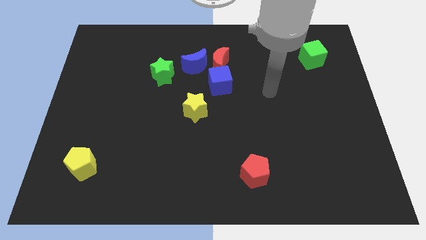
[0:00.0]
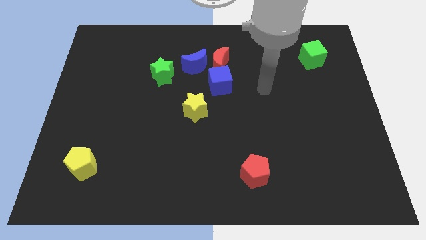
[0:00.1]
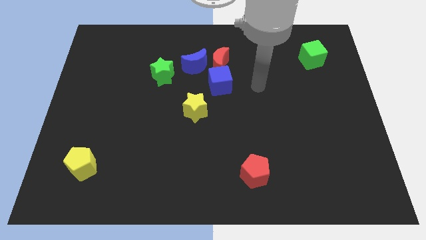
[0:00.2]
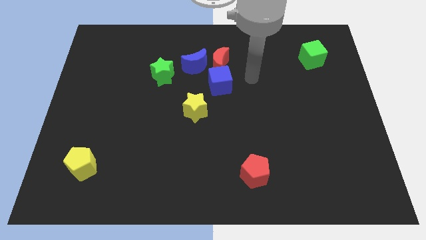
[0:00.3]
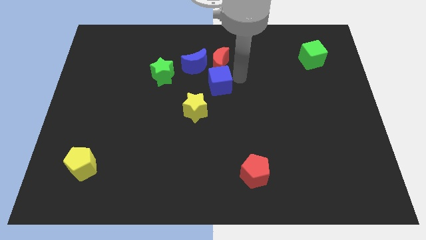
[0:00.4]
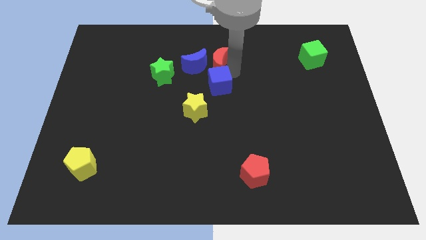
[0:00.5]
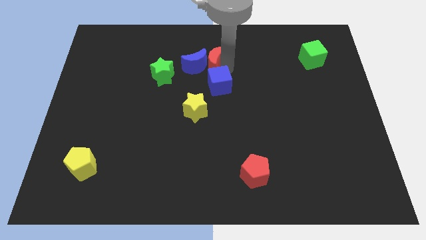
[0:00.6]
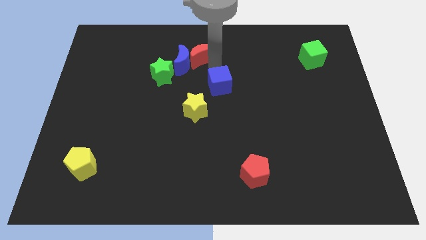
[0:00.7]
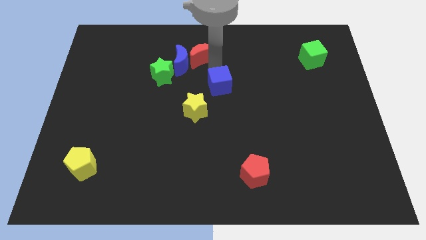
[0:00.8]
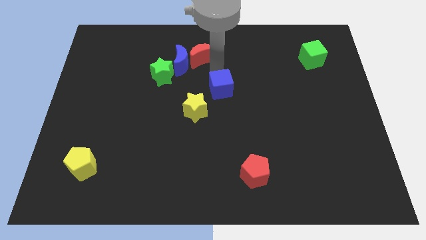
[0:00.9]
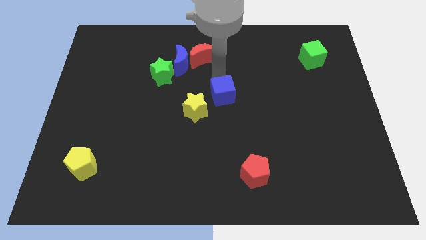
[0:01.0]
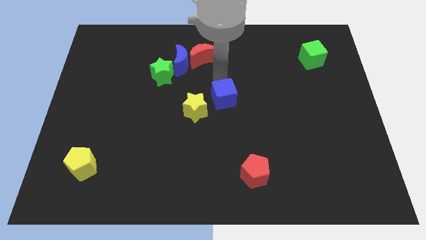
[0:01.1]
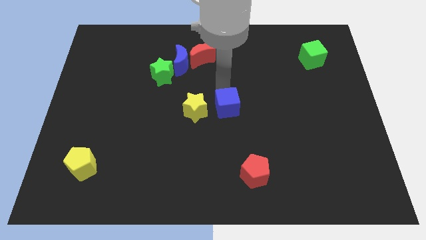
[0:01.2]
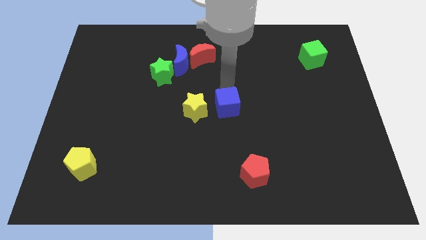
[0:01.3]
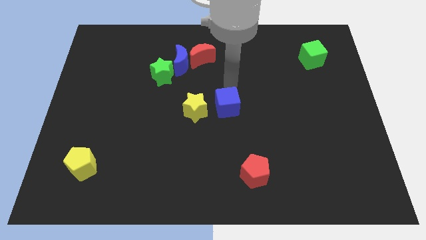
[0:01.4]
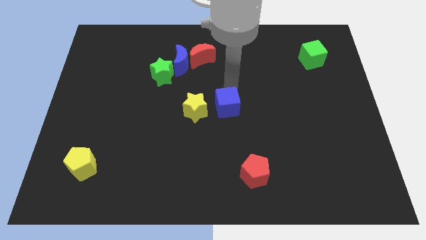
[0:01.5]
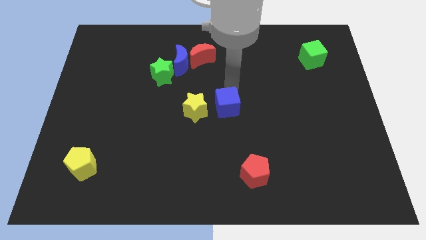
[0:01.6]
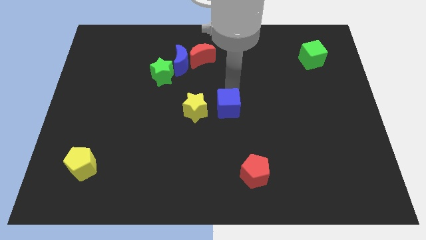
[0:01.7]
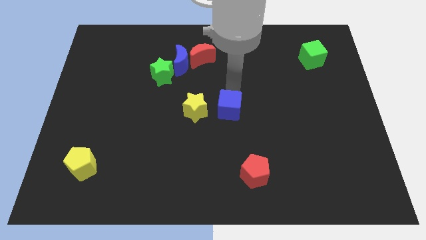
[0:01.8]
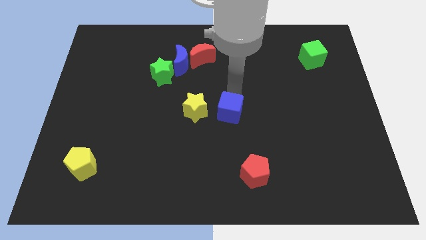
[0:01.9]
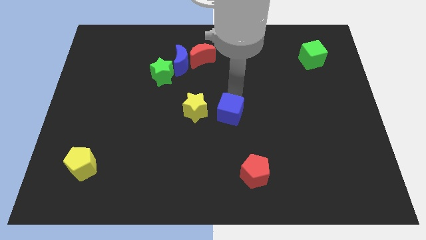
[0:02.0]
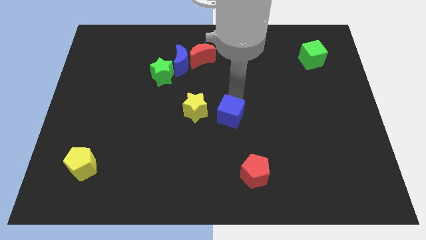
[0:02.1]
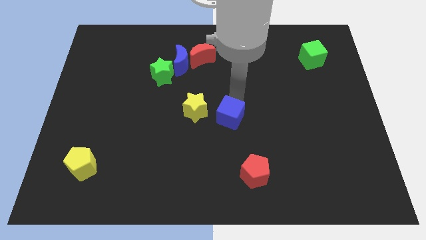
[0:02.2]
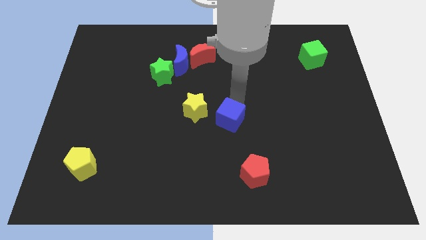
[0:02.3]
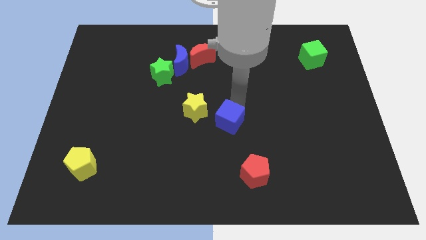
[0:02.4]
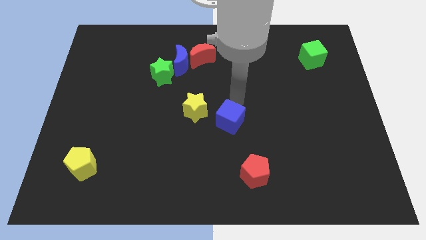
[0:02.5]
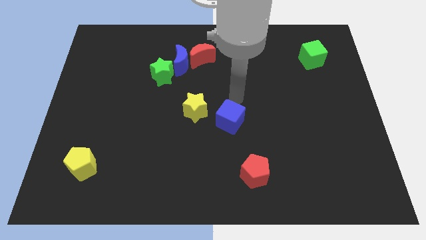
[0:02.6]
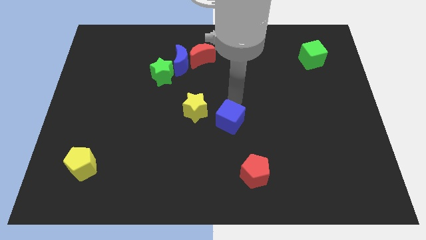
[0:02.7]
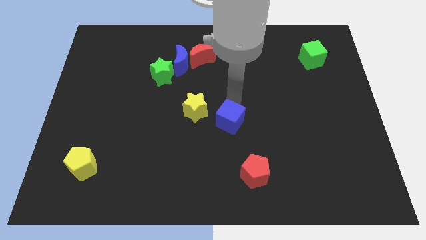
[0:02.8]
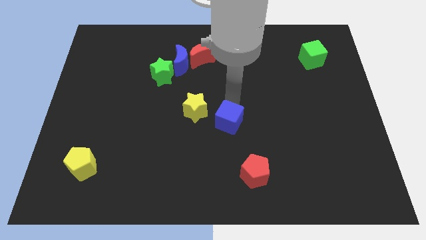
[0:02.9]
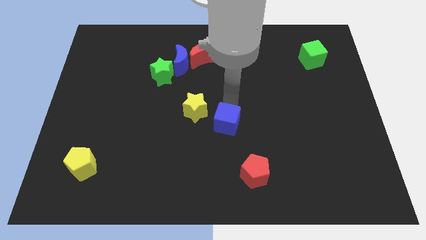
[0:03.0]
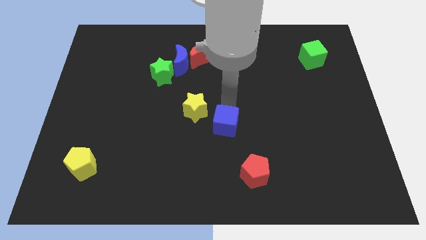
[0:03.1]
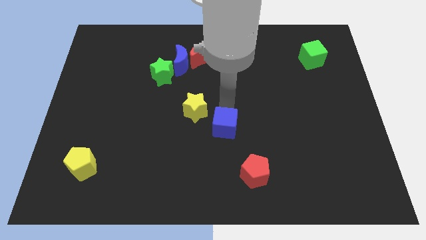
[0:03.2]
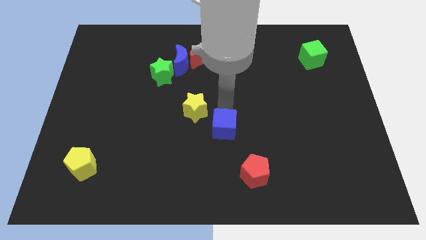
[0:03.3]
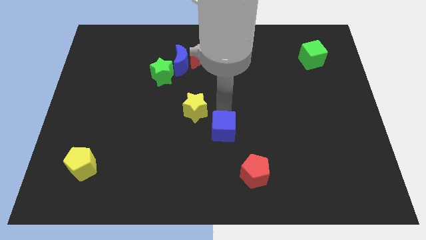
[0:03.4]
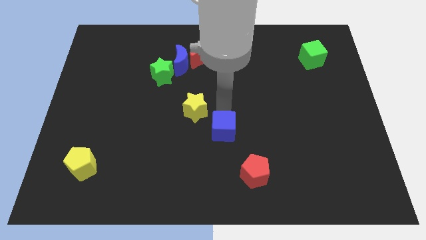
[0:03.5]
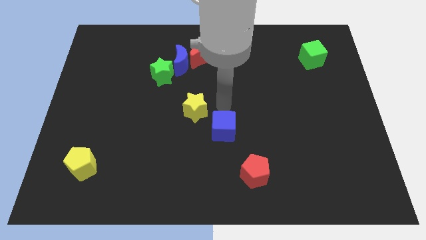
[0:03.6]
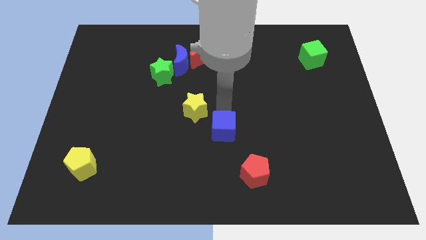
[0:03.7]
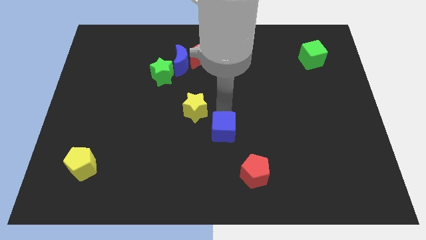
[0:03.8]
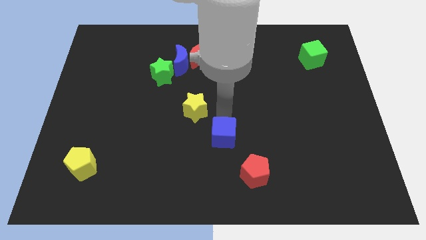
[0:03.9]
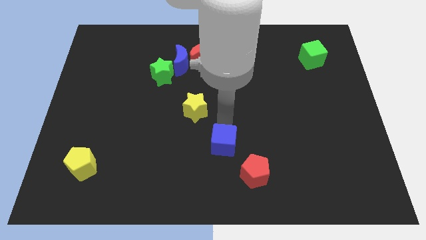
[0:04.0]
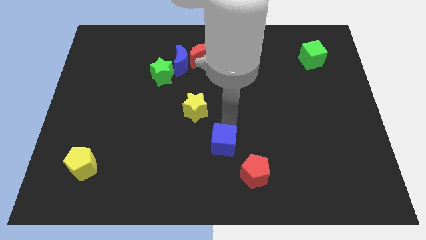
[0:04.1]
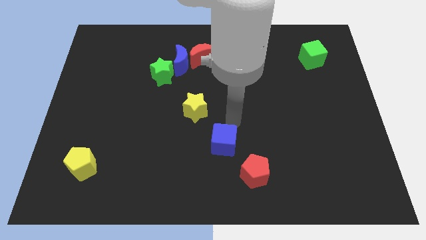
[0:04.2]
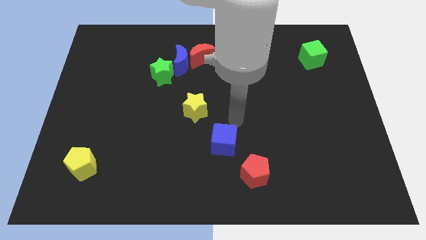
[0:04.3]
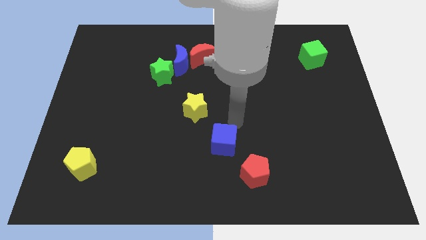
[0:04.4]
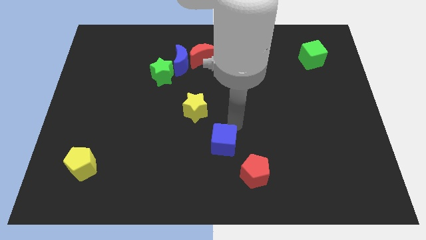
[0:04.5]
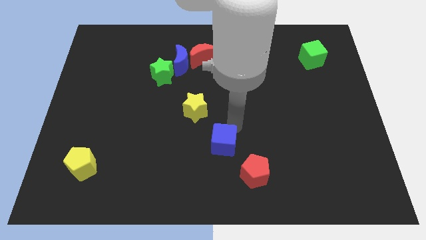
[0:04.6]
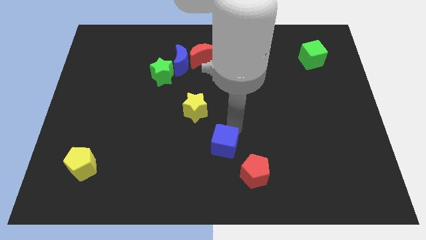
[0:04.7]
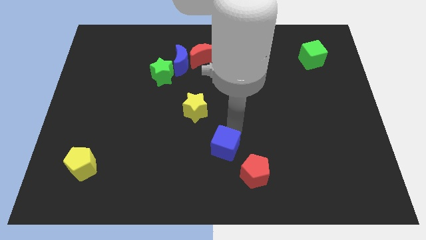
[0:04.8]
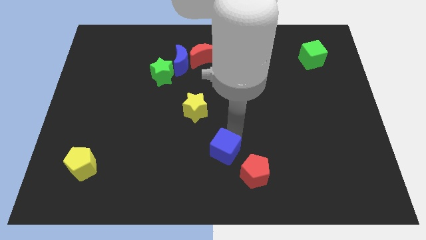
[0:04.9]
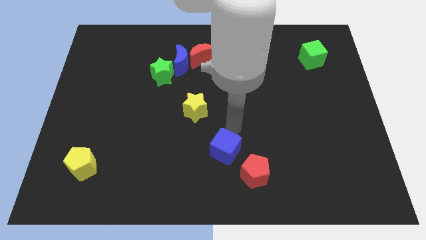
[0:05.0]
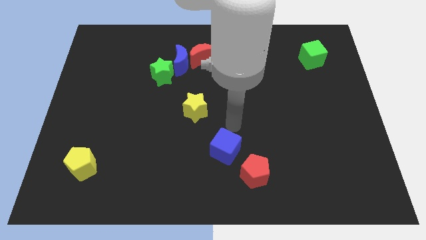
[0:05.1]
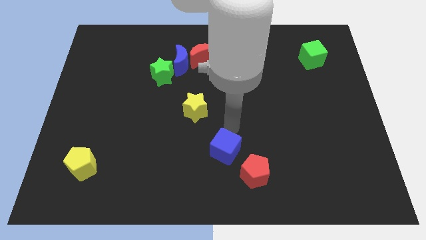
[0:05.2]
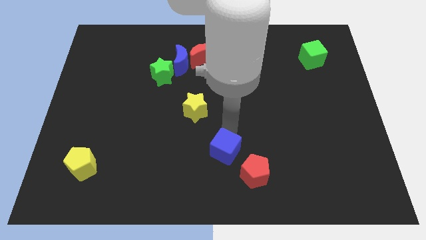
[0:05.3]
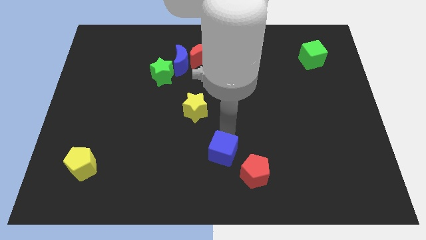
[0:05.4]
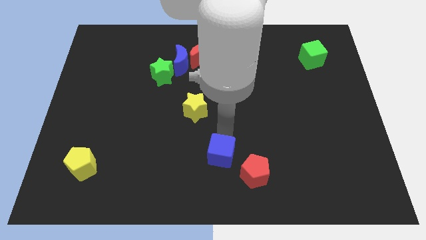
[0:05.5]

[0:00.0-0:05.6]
put the blue cube to the bottom

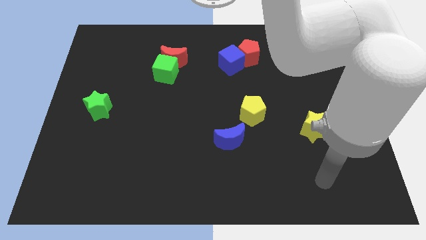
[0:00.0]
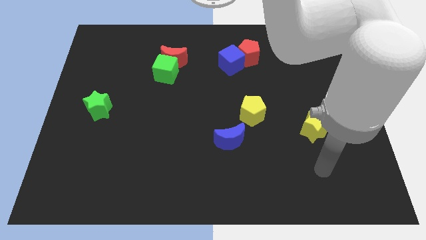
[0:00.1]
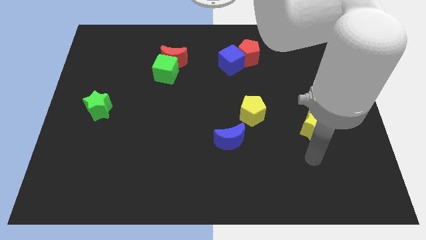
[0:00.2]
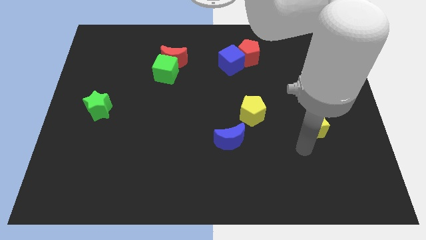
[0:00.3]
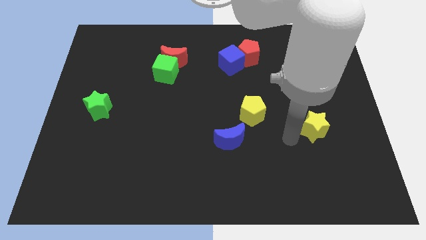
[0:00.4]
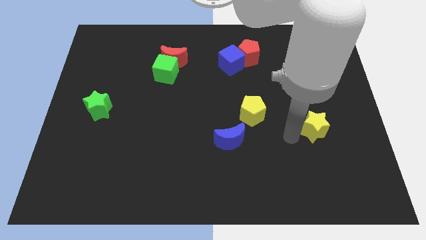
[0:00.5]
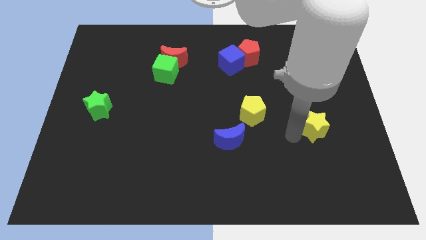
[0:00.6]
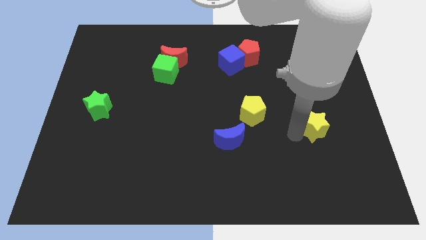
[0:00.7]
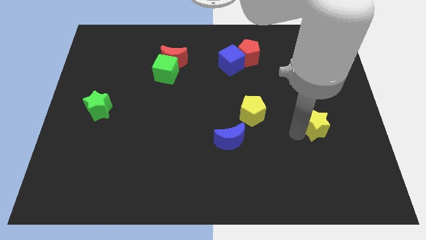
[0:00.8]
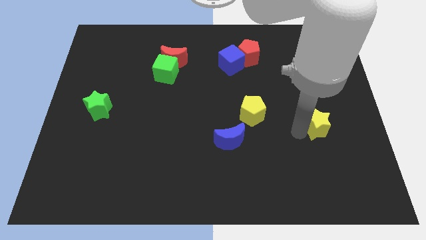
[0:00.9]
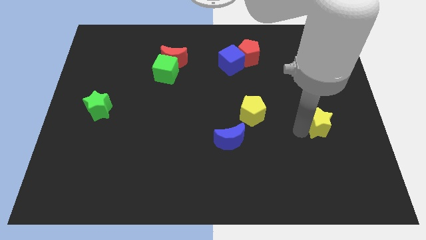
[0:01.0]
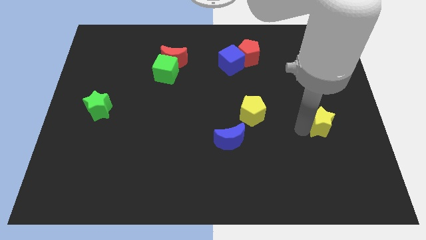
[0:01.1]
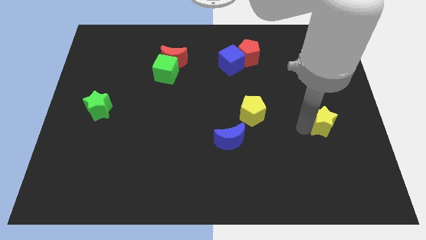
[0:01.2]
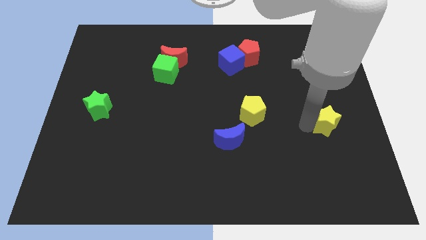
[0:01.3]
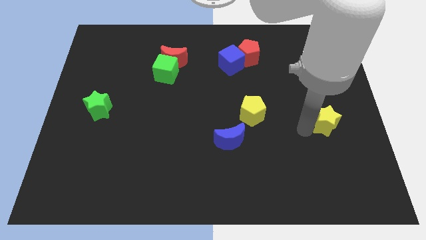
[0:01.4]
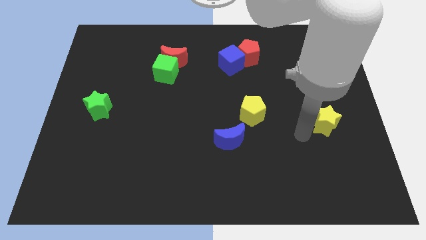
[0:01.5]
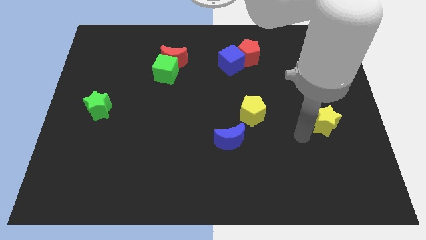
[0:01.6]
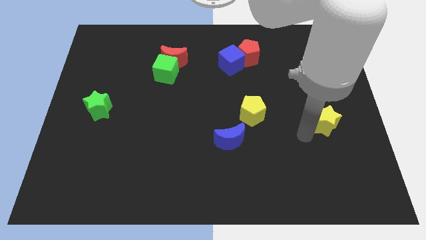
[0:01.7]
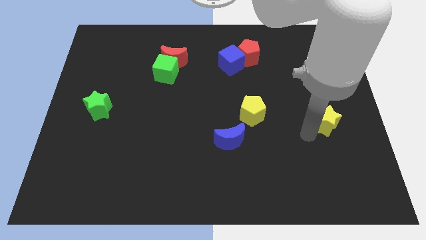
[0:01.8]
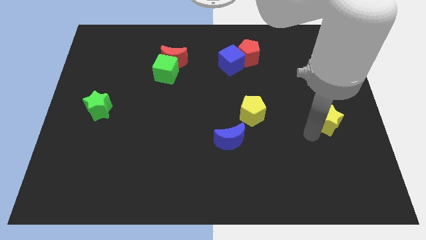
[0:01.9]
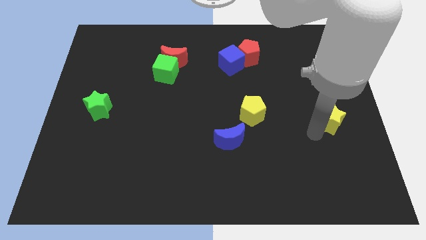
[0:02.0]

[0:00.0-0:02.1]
slide the yellow star to the center right
